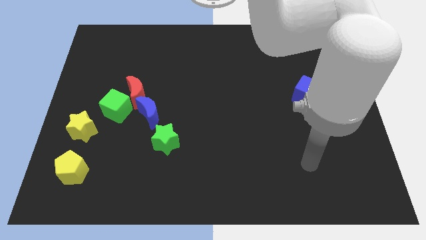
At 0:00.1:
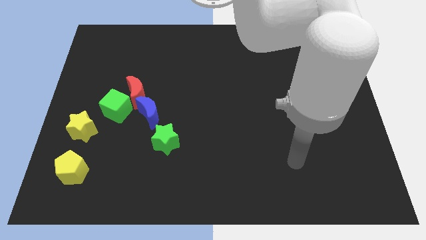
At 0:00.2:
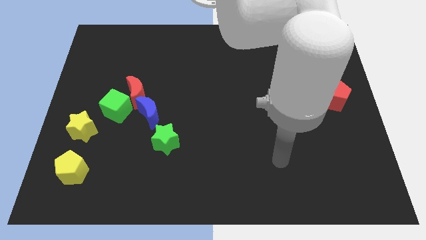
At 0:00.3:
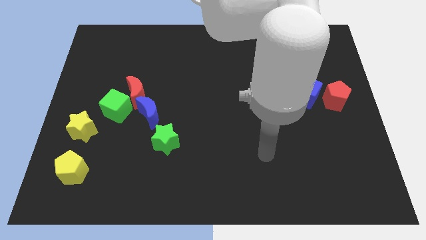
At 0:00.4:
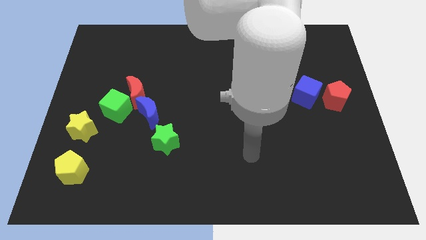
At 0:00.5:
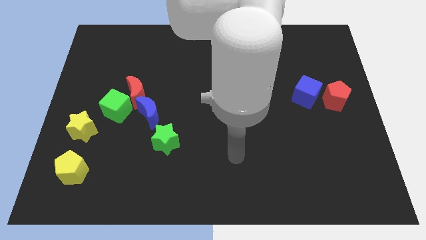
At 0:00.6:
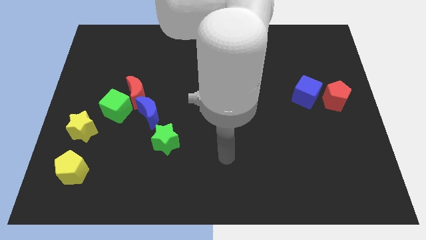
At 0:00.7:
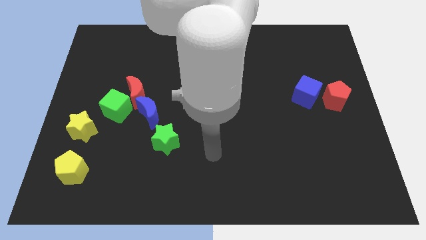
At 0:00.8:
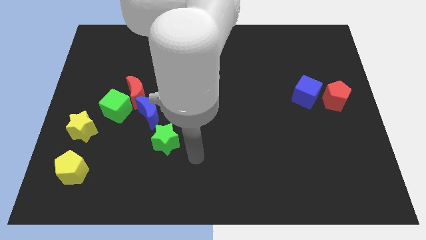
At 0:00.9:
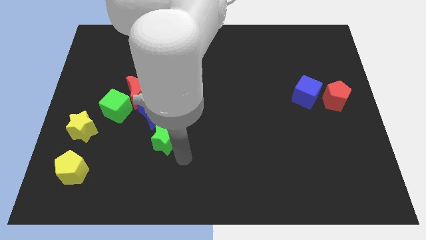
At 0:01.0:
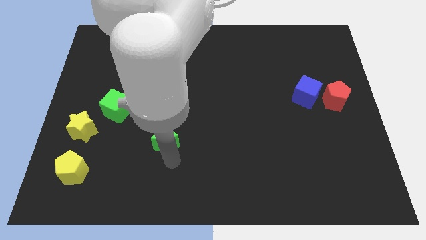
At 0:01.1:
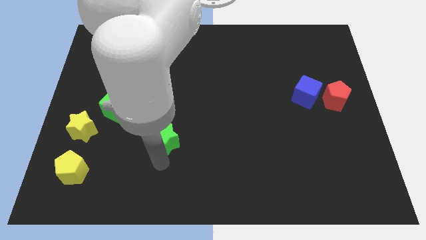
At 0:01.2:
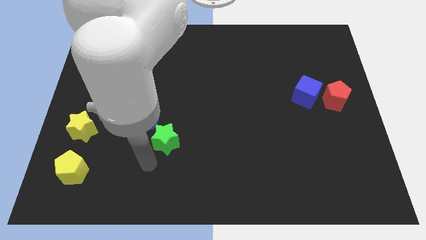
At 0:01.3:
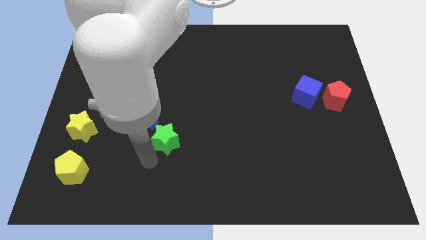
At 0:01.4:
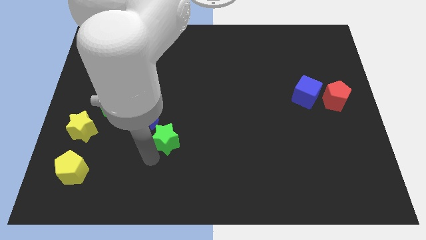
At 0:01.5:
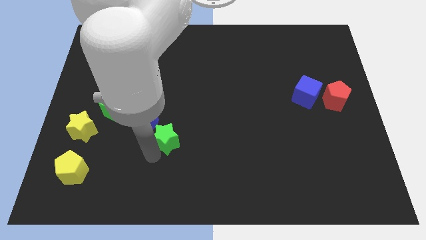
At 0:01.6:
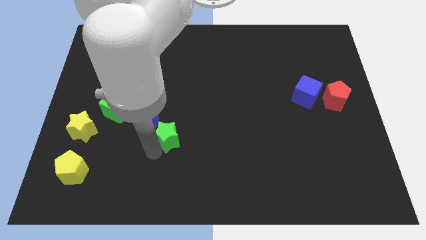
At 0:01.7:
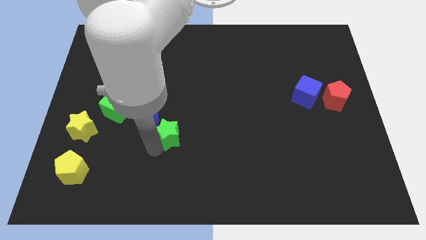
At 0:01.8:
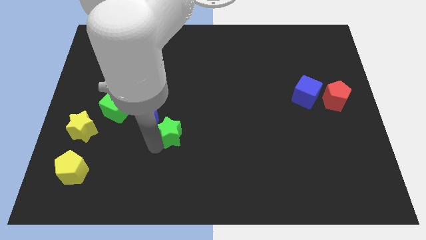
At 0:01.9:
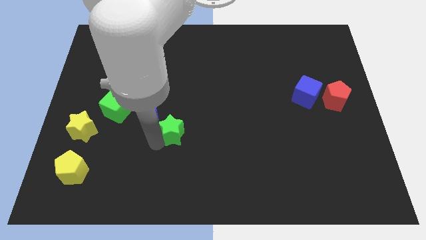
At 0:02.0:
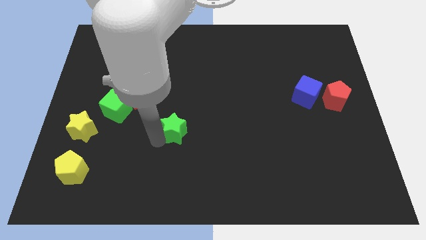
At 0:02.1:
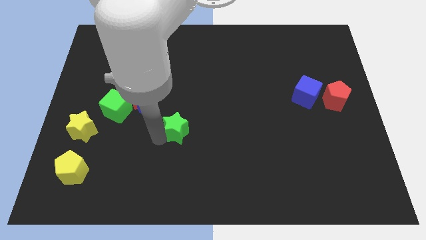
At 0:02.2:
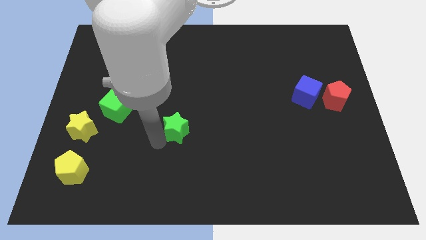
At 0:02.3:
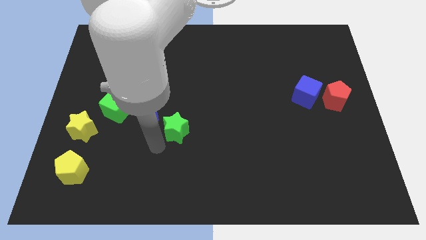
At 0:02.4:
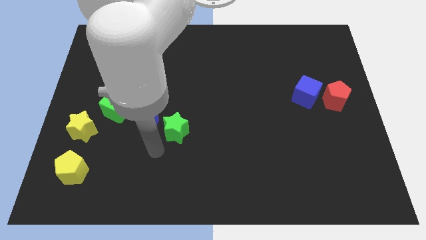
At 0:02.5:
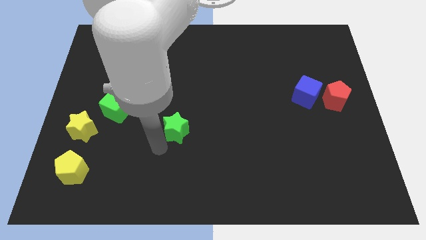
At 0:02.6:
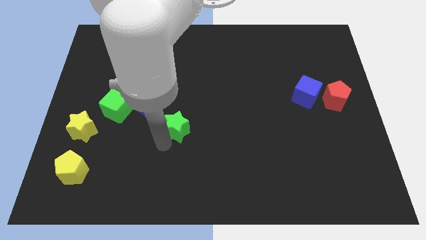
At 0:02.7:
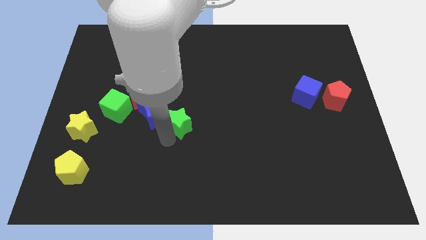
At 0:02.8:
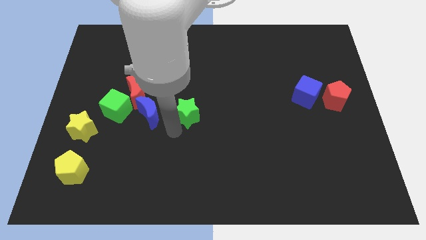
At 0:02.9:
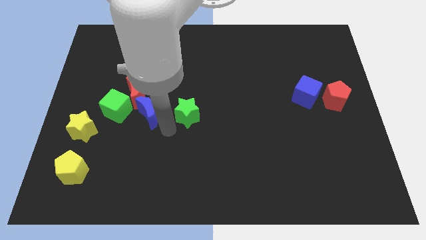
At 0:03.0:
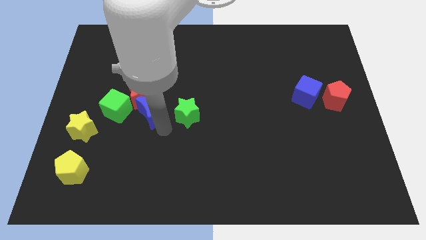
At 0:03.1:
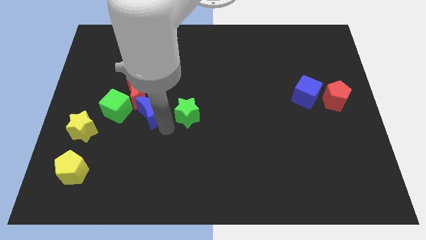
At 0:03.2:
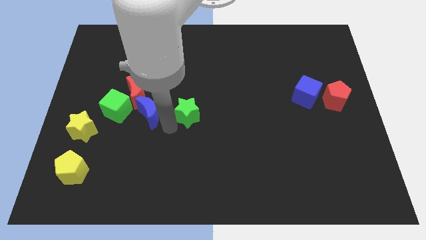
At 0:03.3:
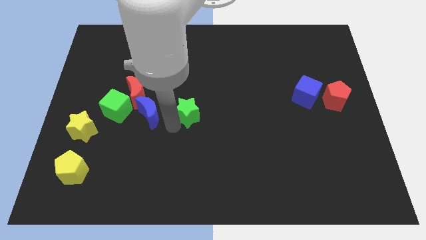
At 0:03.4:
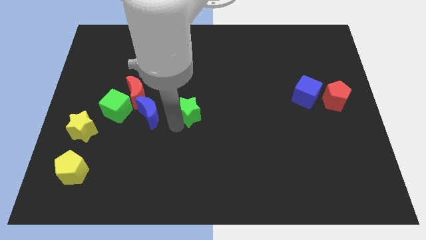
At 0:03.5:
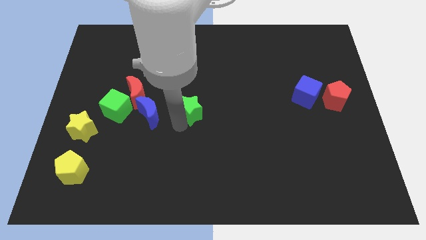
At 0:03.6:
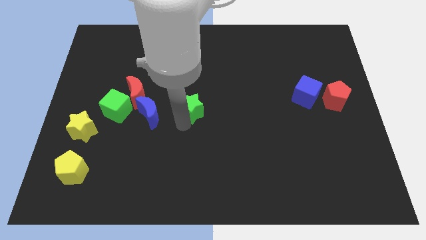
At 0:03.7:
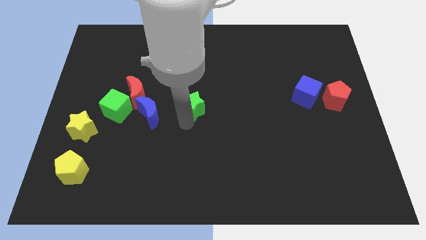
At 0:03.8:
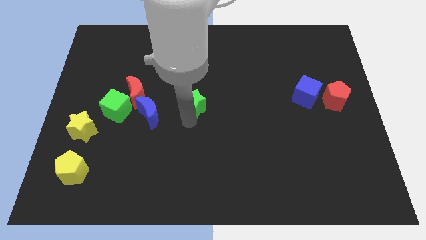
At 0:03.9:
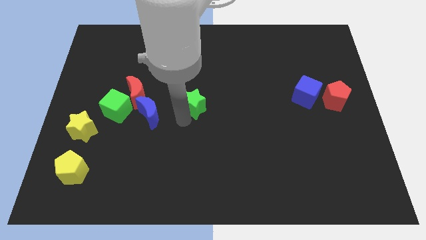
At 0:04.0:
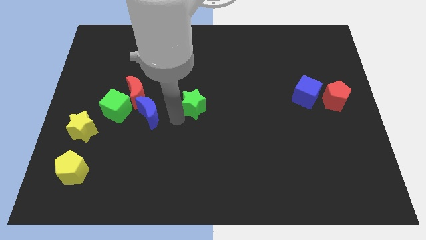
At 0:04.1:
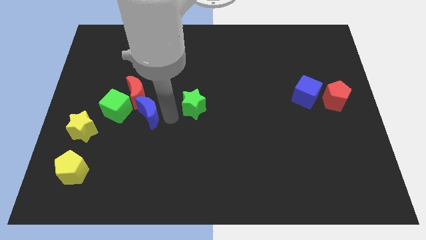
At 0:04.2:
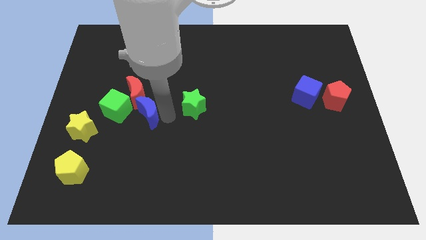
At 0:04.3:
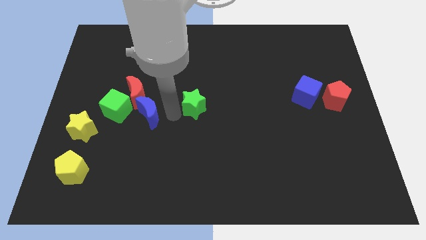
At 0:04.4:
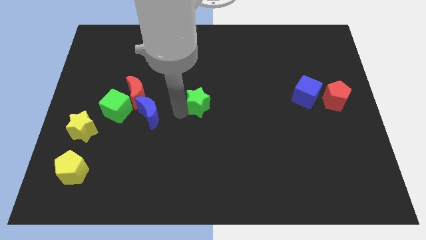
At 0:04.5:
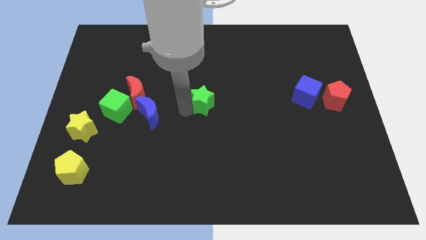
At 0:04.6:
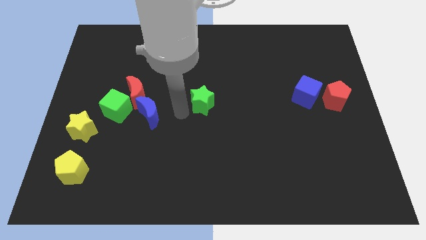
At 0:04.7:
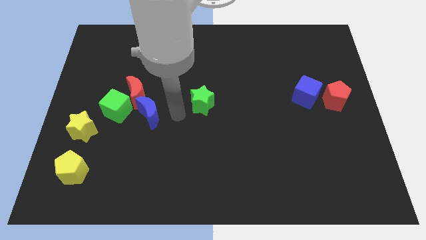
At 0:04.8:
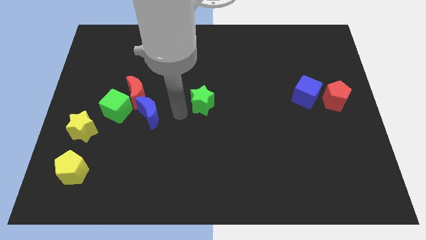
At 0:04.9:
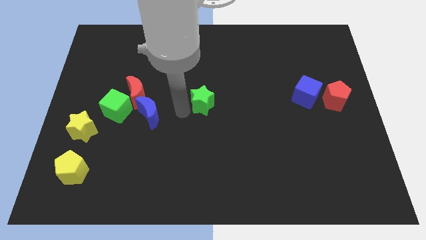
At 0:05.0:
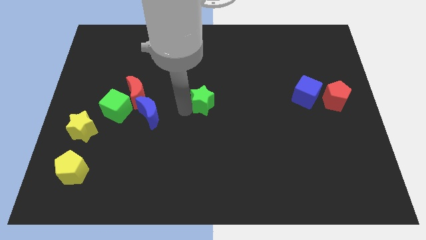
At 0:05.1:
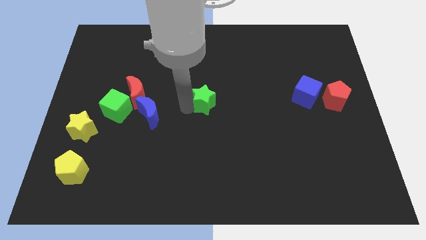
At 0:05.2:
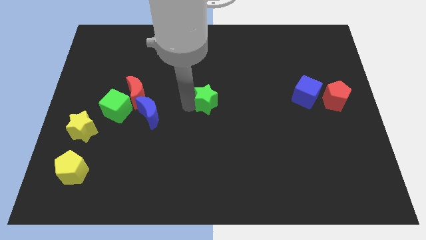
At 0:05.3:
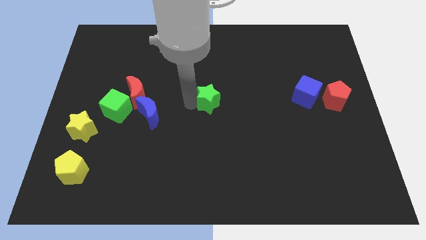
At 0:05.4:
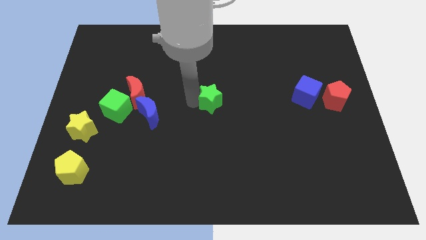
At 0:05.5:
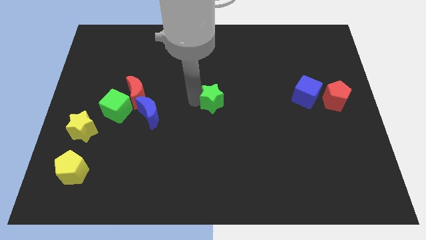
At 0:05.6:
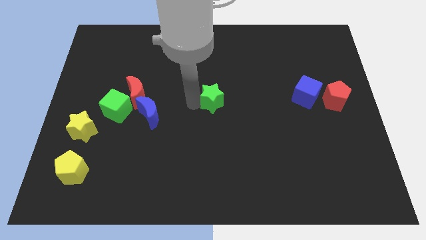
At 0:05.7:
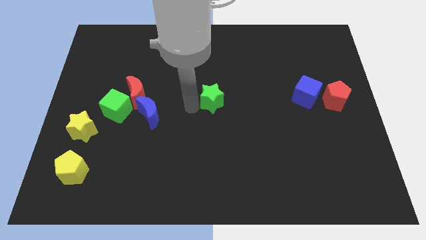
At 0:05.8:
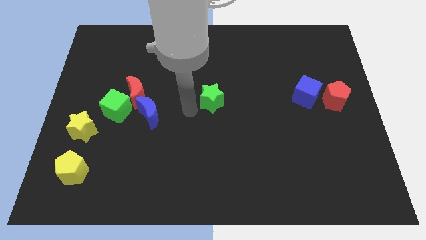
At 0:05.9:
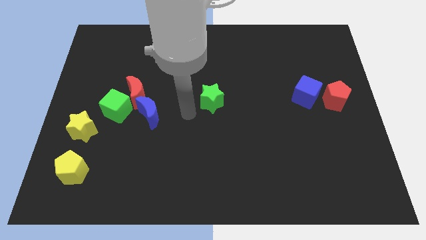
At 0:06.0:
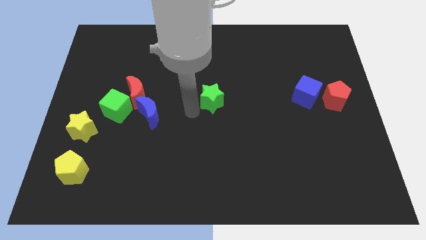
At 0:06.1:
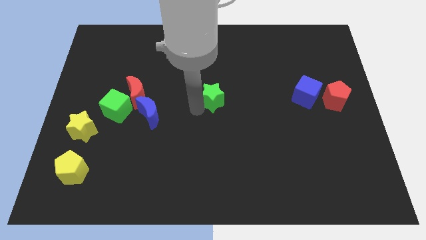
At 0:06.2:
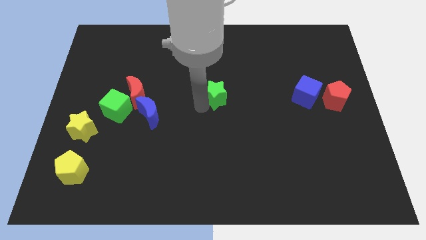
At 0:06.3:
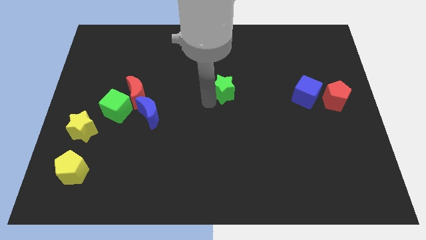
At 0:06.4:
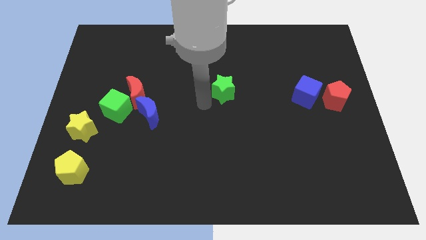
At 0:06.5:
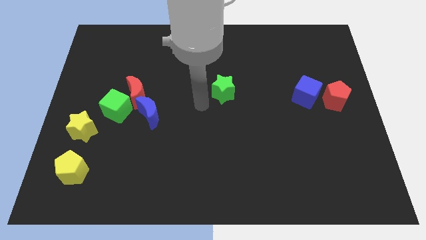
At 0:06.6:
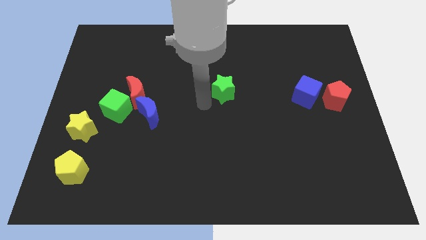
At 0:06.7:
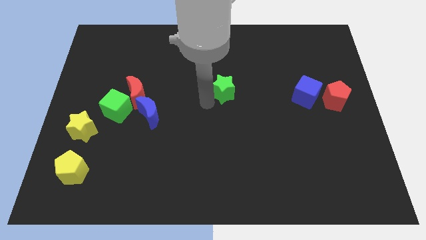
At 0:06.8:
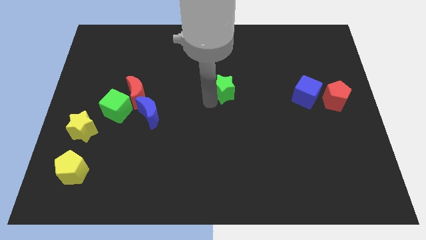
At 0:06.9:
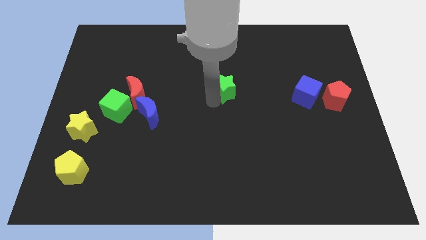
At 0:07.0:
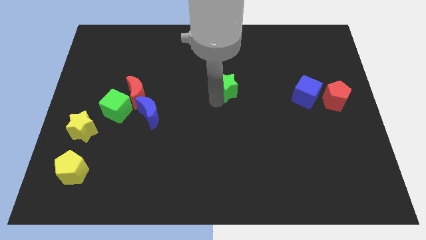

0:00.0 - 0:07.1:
push the green star up and then to the right

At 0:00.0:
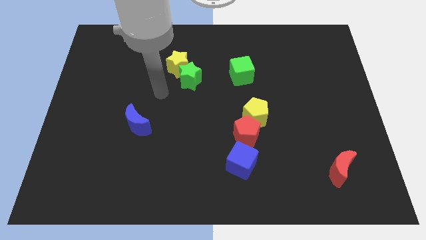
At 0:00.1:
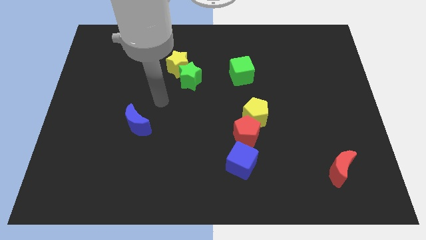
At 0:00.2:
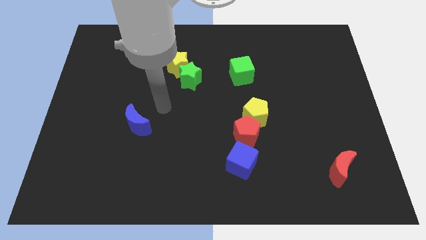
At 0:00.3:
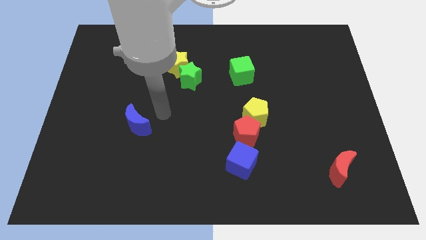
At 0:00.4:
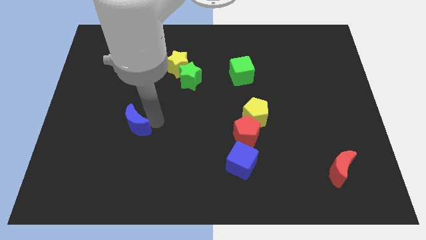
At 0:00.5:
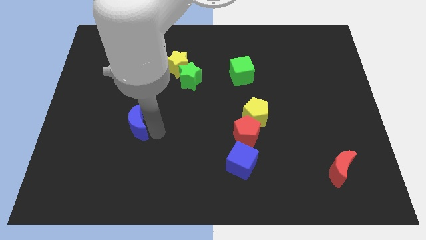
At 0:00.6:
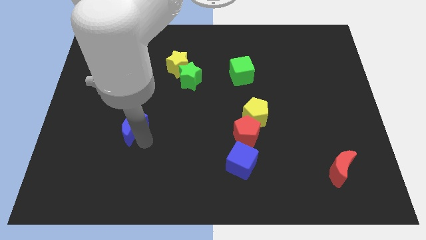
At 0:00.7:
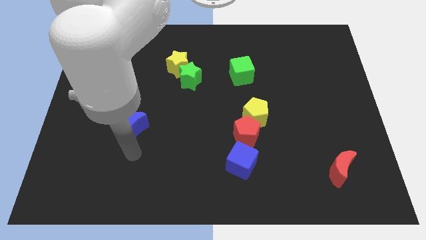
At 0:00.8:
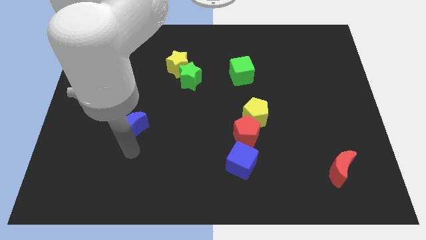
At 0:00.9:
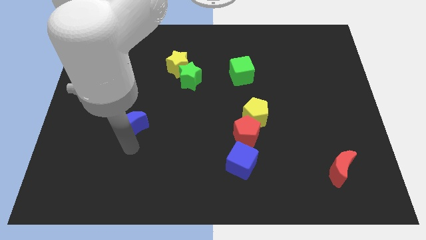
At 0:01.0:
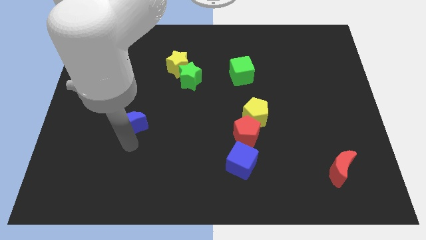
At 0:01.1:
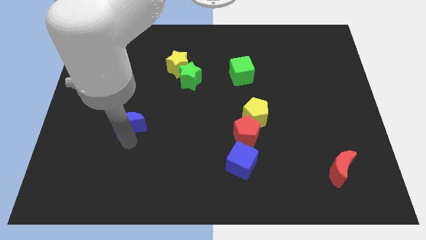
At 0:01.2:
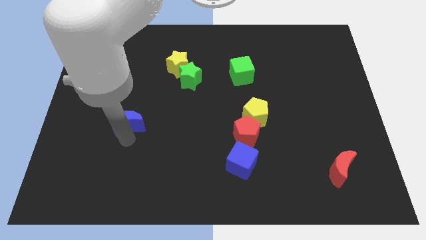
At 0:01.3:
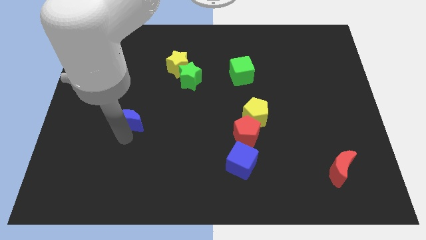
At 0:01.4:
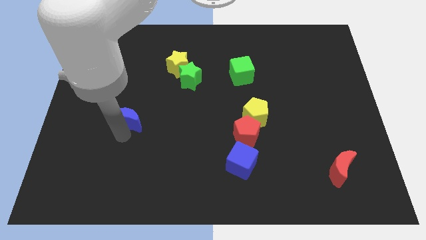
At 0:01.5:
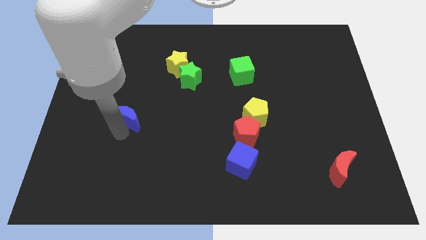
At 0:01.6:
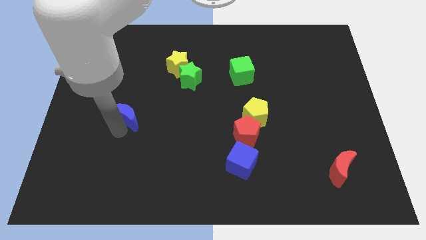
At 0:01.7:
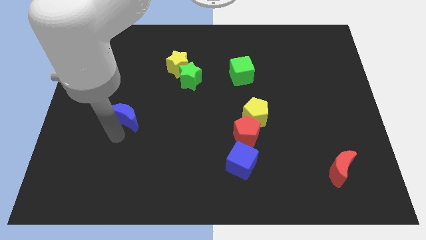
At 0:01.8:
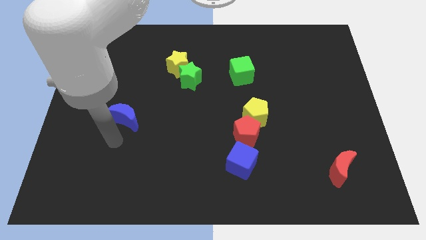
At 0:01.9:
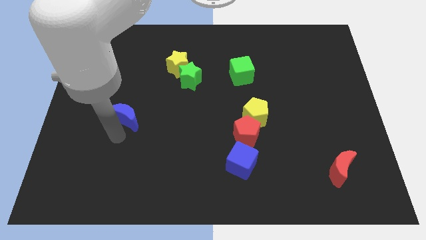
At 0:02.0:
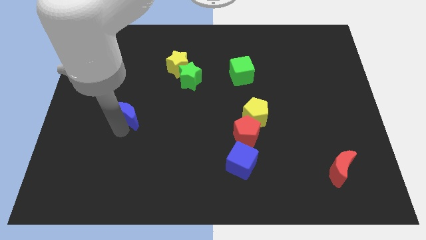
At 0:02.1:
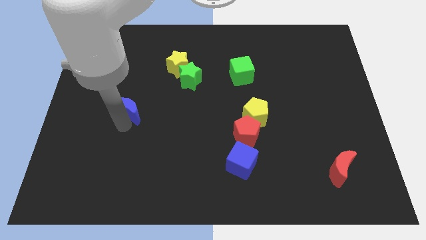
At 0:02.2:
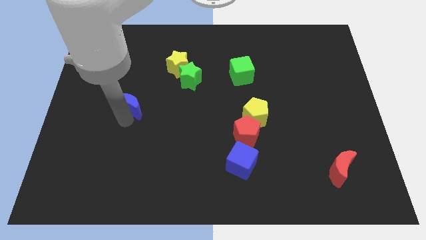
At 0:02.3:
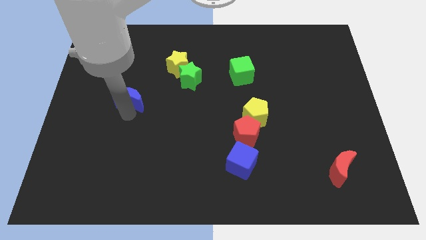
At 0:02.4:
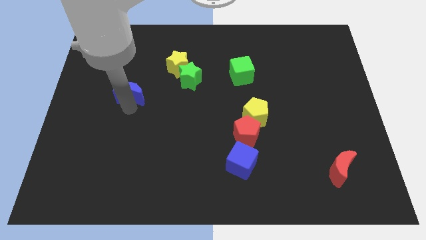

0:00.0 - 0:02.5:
slightly move the blue moon up
